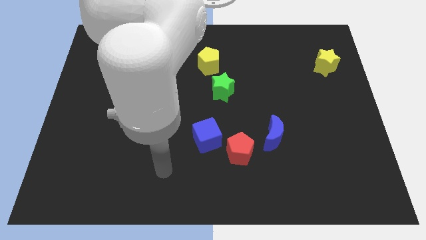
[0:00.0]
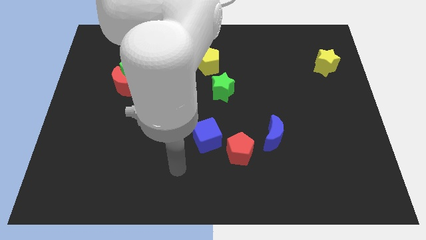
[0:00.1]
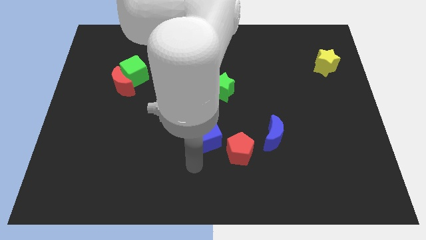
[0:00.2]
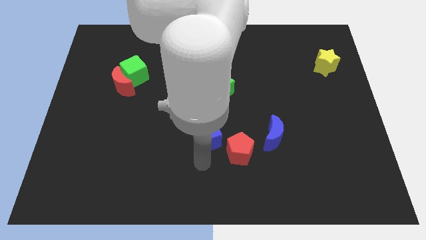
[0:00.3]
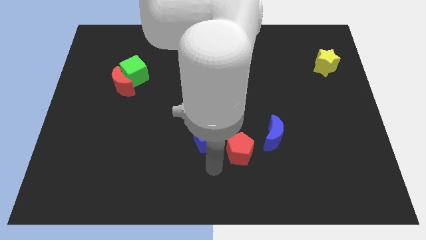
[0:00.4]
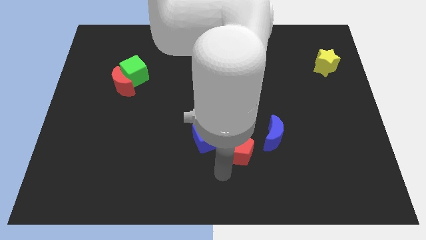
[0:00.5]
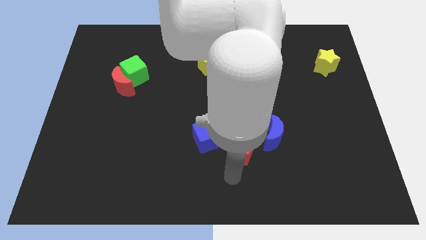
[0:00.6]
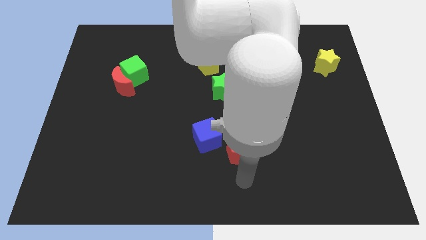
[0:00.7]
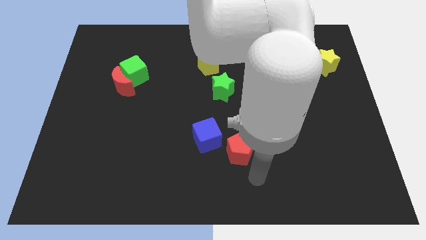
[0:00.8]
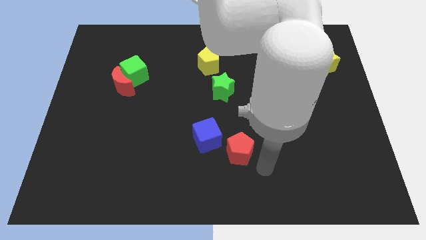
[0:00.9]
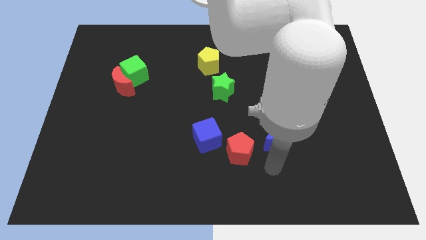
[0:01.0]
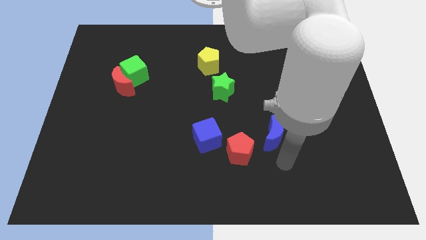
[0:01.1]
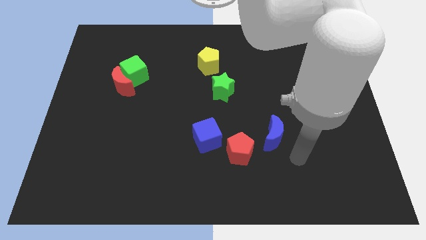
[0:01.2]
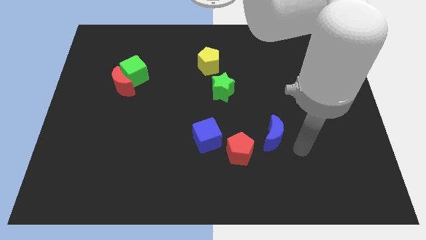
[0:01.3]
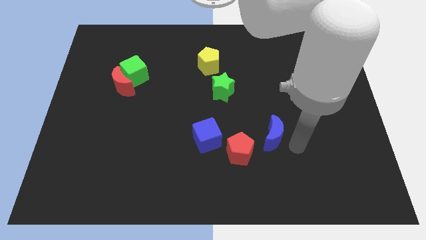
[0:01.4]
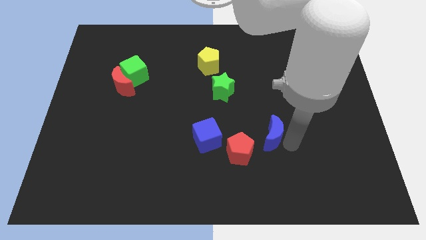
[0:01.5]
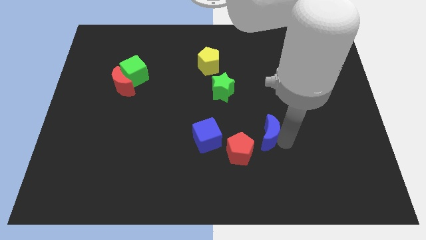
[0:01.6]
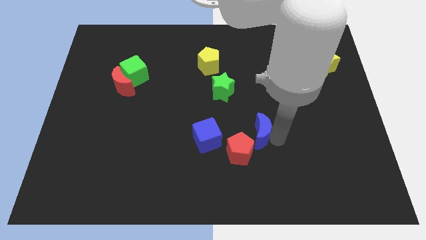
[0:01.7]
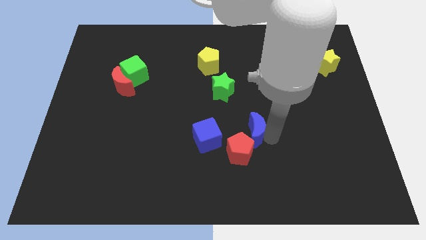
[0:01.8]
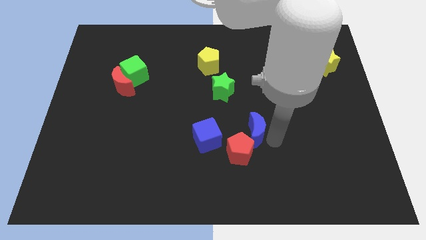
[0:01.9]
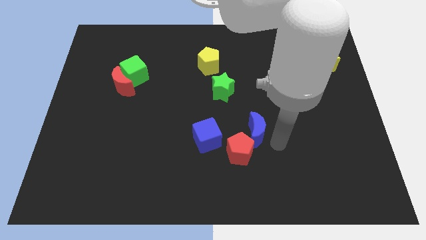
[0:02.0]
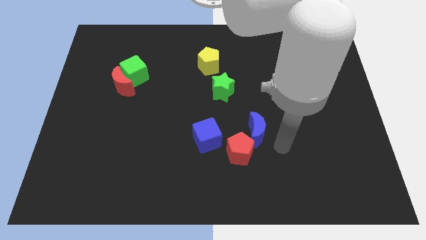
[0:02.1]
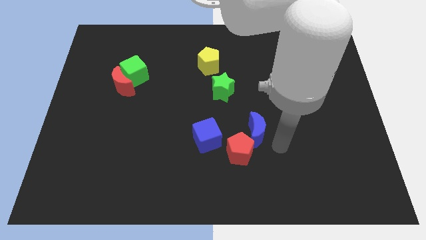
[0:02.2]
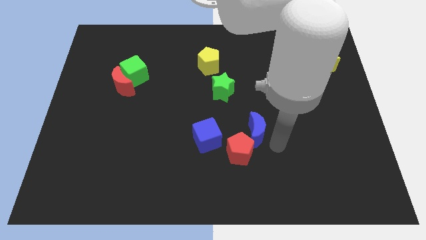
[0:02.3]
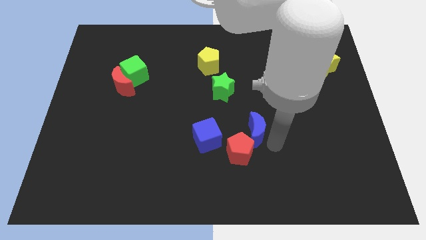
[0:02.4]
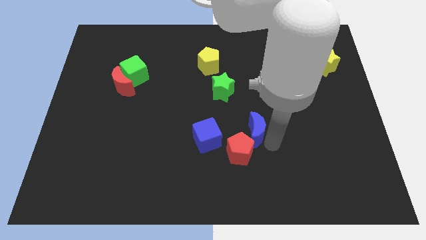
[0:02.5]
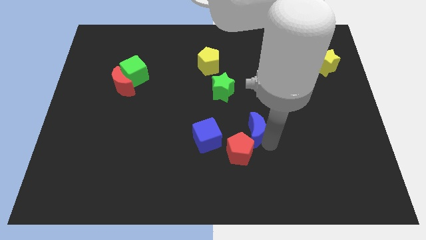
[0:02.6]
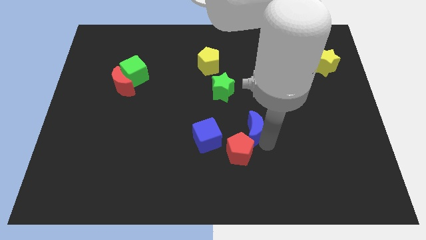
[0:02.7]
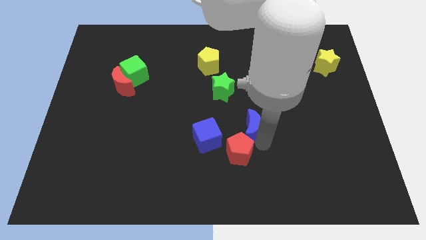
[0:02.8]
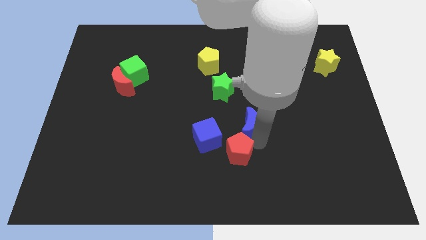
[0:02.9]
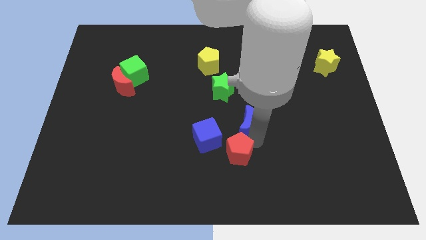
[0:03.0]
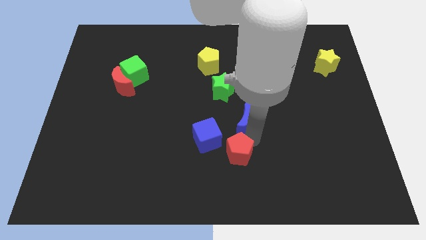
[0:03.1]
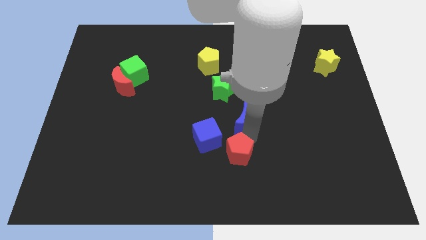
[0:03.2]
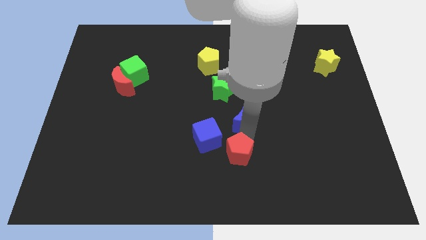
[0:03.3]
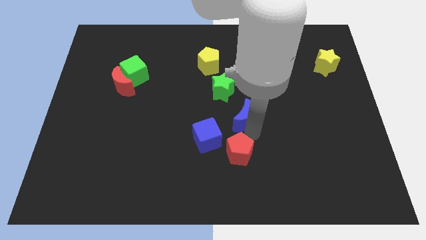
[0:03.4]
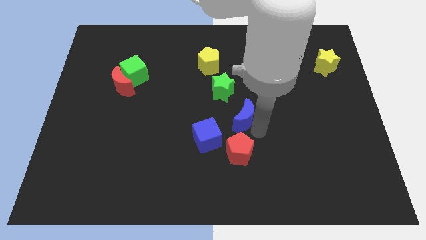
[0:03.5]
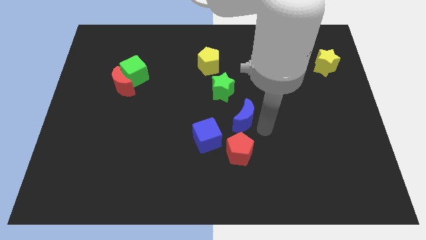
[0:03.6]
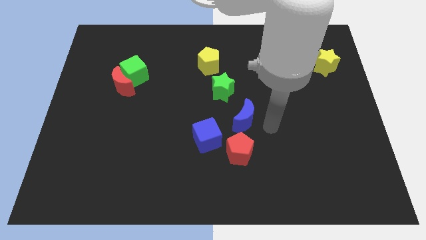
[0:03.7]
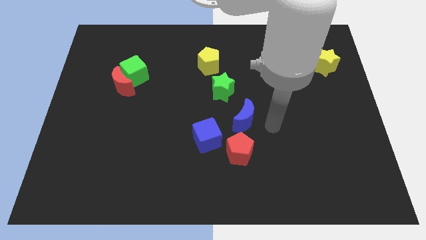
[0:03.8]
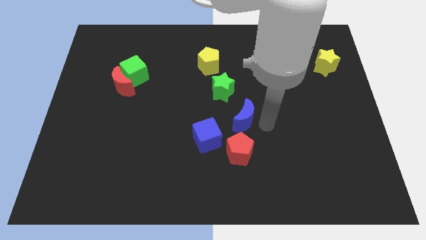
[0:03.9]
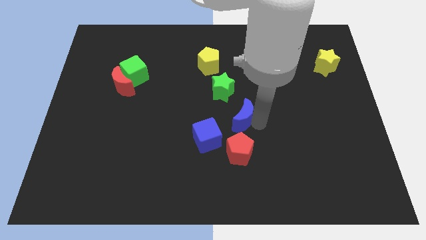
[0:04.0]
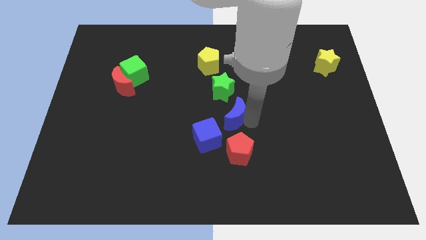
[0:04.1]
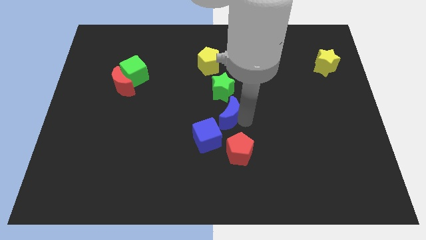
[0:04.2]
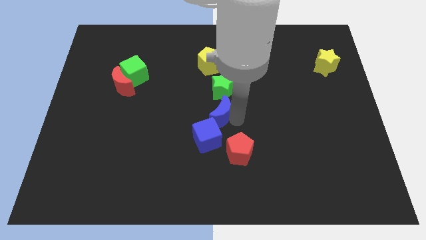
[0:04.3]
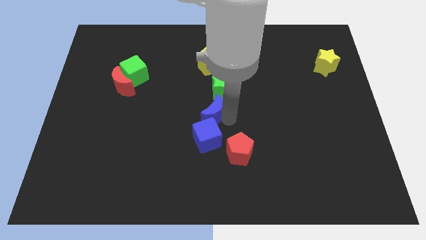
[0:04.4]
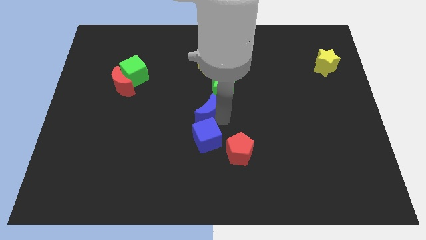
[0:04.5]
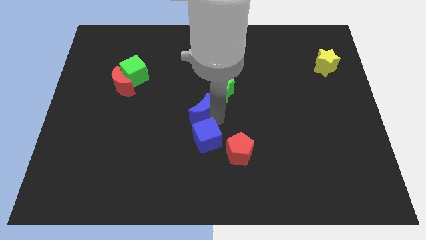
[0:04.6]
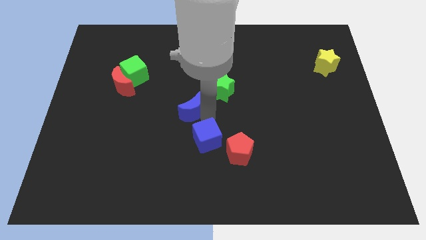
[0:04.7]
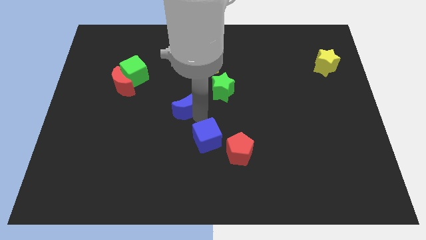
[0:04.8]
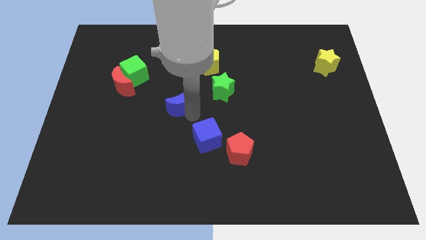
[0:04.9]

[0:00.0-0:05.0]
put the blue moon just left of the green star

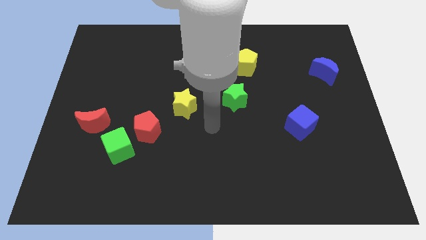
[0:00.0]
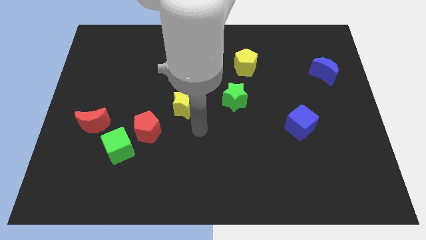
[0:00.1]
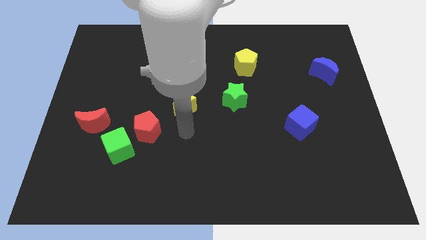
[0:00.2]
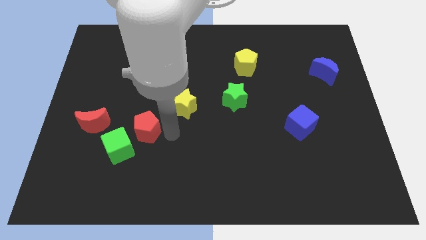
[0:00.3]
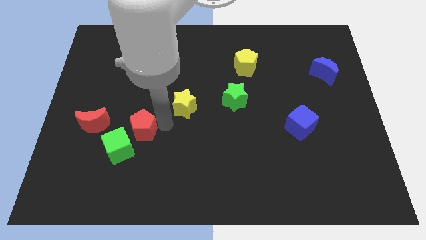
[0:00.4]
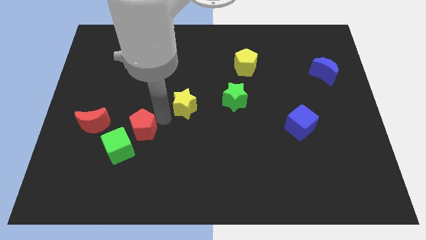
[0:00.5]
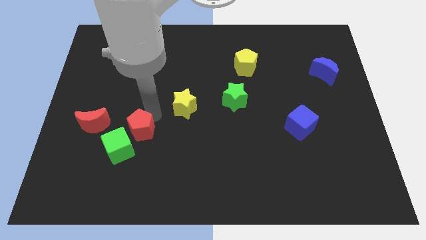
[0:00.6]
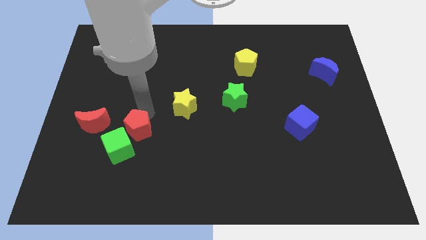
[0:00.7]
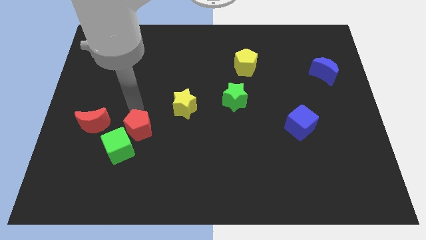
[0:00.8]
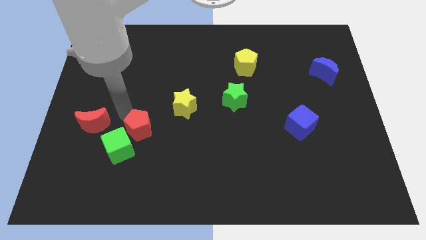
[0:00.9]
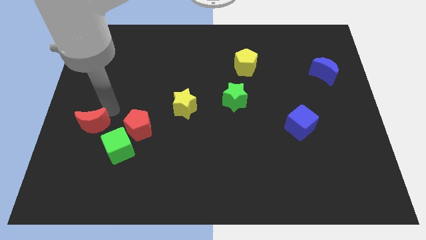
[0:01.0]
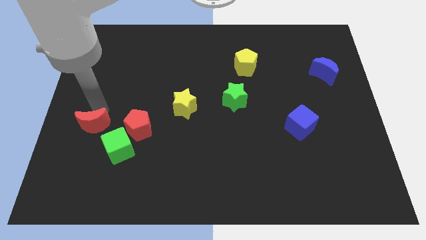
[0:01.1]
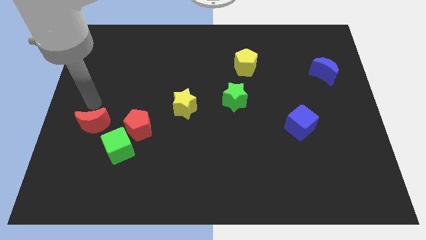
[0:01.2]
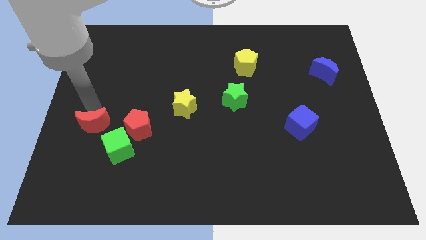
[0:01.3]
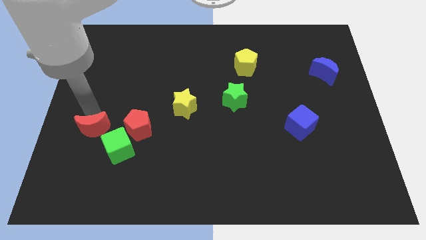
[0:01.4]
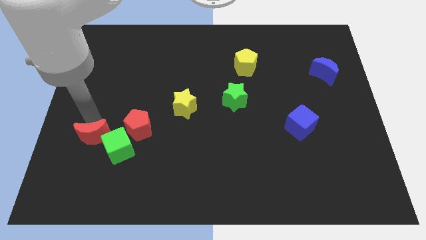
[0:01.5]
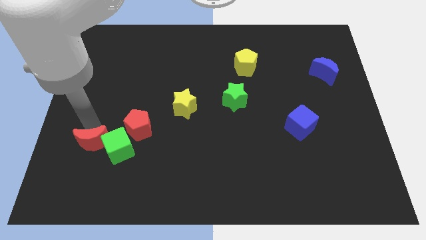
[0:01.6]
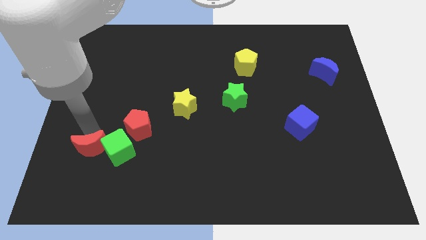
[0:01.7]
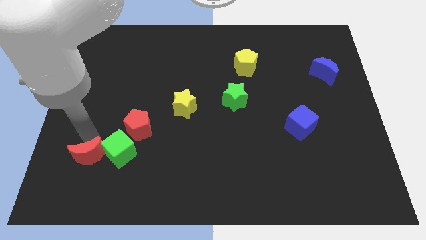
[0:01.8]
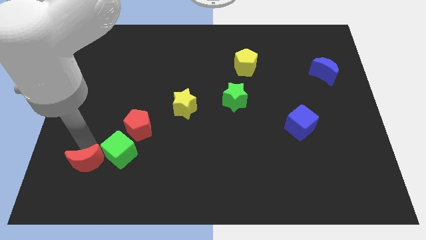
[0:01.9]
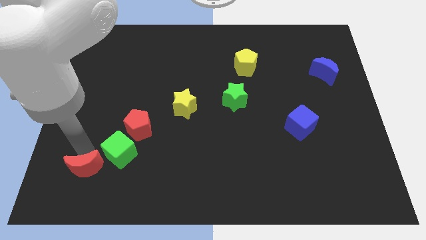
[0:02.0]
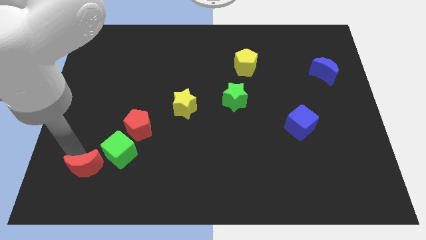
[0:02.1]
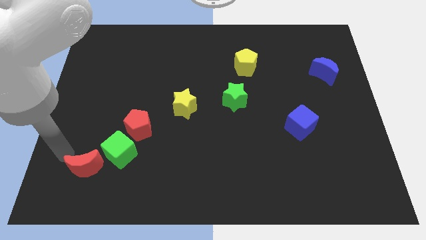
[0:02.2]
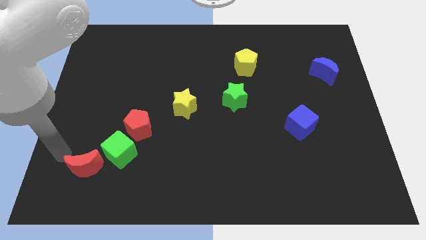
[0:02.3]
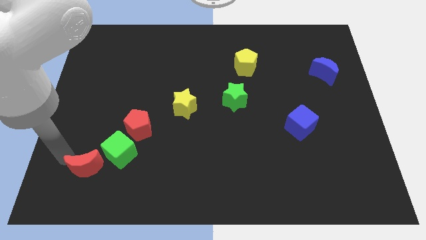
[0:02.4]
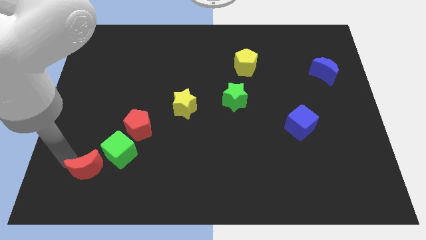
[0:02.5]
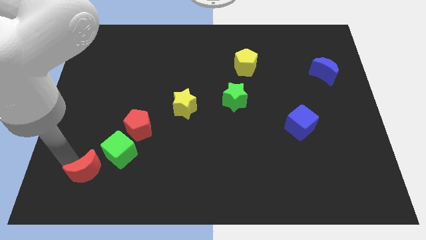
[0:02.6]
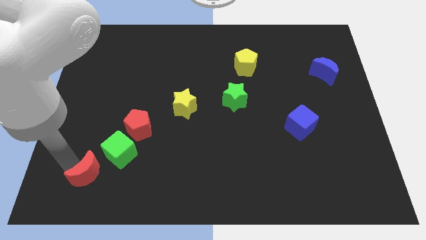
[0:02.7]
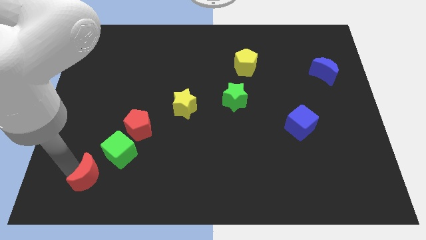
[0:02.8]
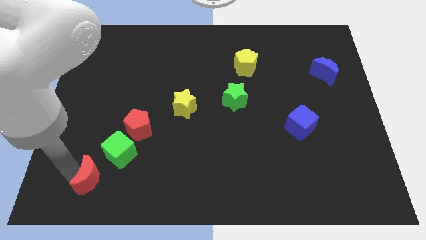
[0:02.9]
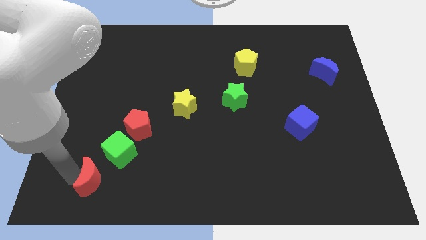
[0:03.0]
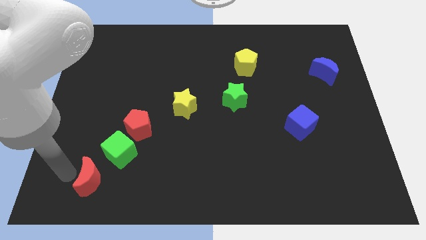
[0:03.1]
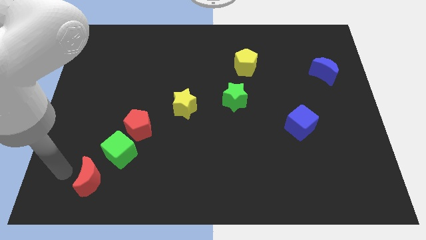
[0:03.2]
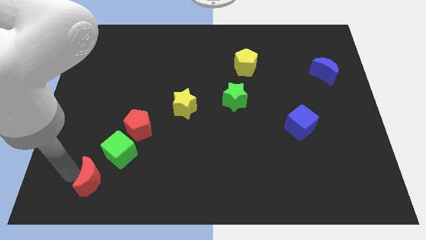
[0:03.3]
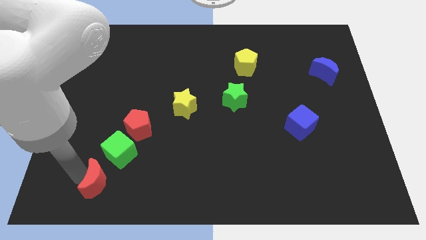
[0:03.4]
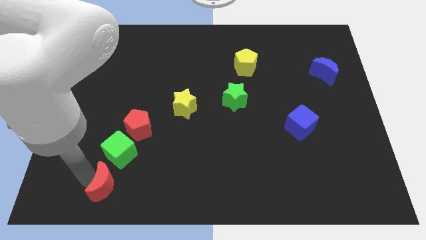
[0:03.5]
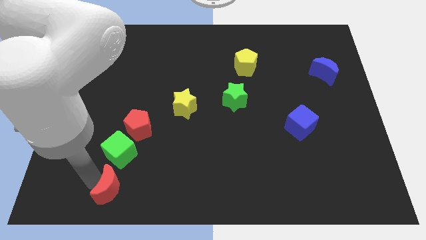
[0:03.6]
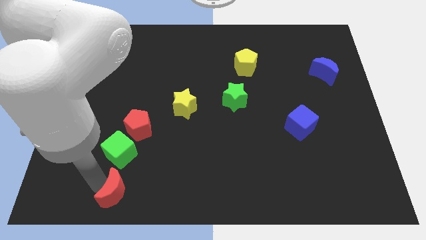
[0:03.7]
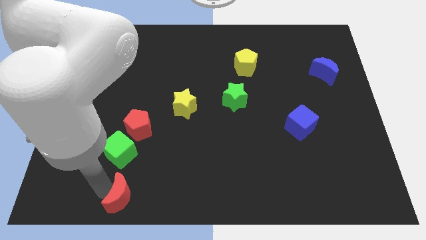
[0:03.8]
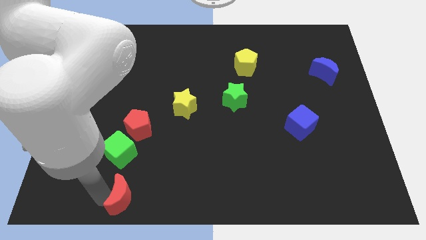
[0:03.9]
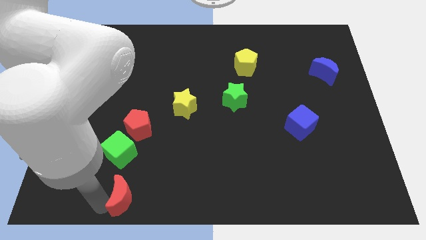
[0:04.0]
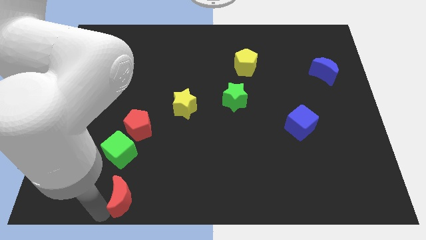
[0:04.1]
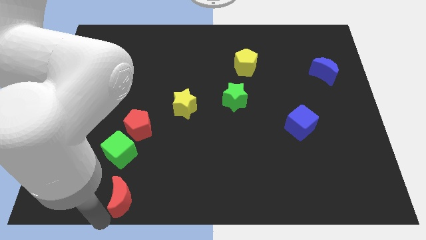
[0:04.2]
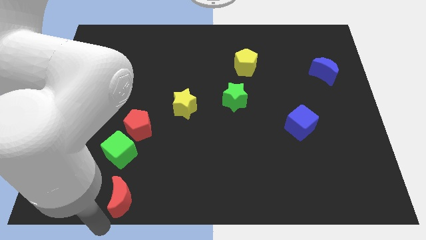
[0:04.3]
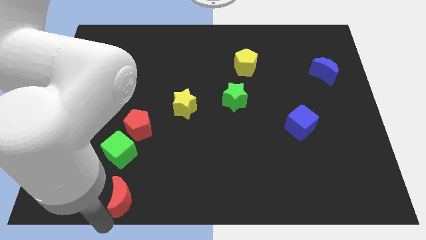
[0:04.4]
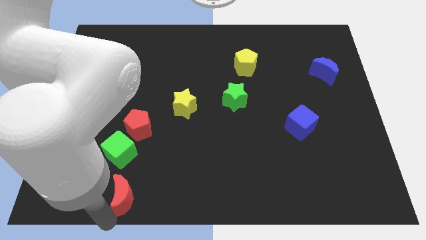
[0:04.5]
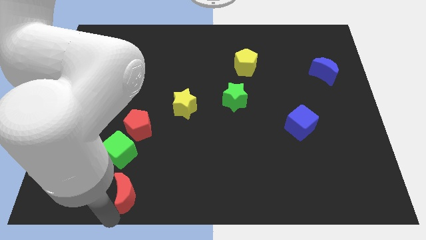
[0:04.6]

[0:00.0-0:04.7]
move the red moon to the bottom right side of the green cube
